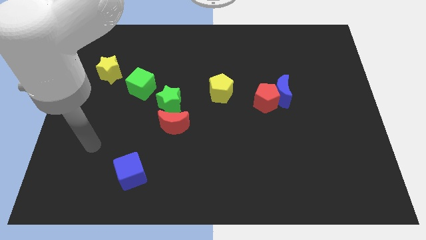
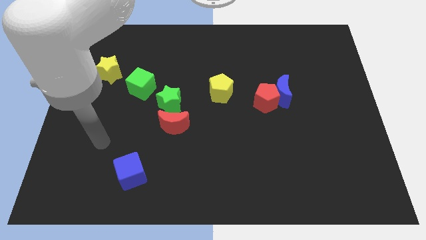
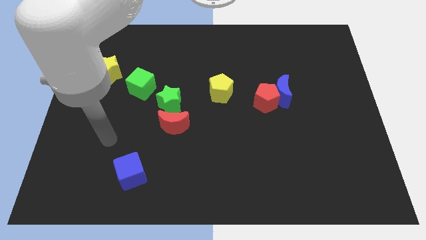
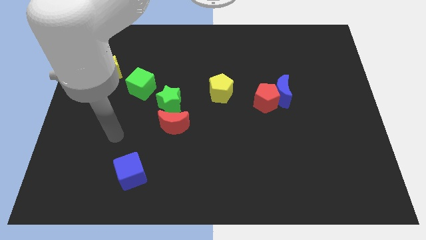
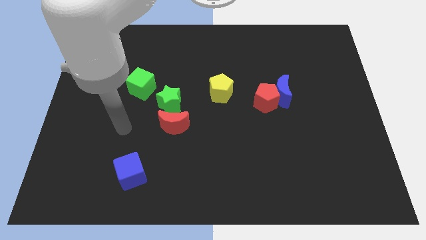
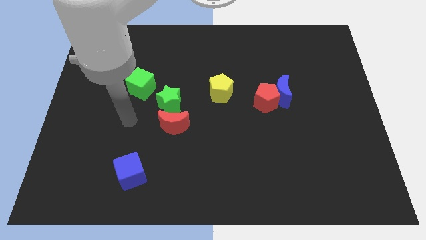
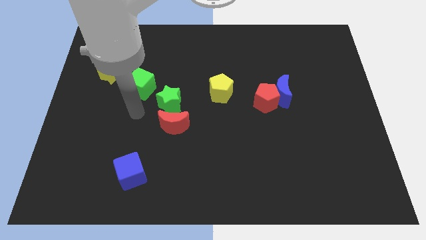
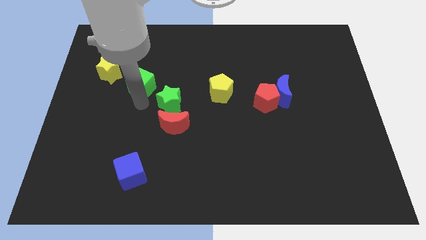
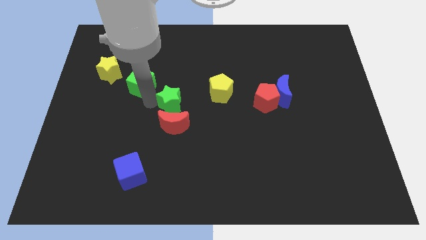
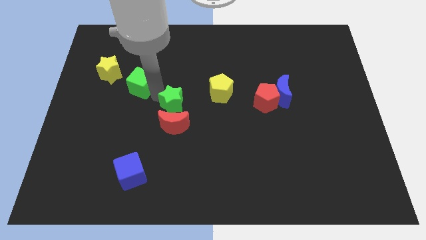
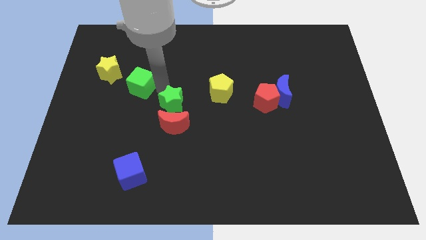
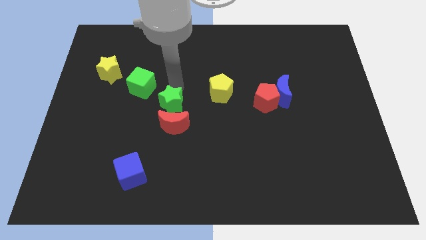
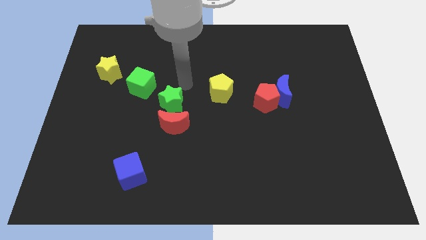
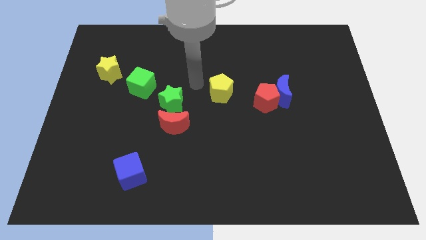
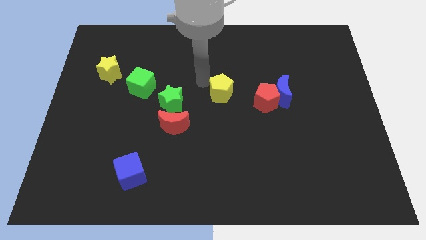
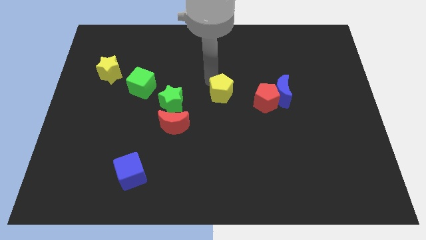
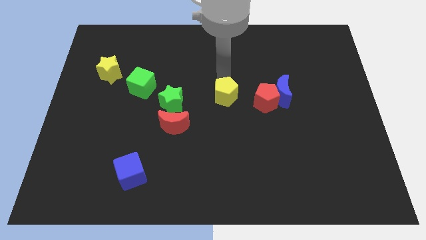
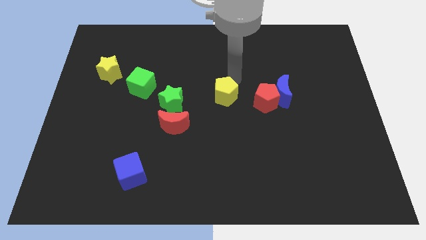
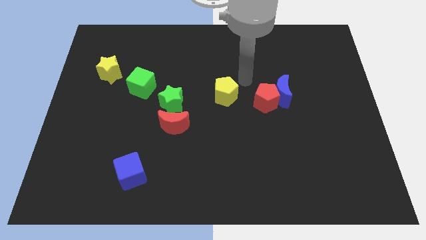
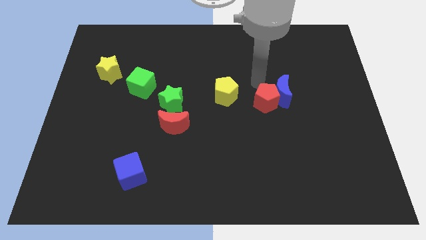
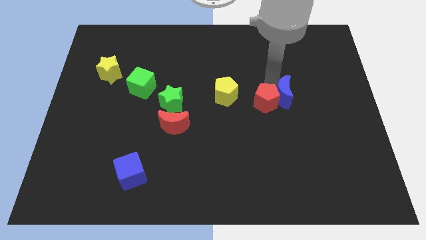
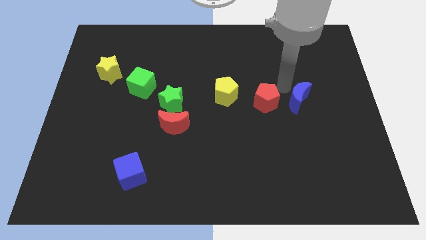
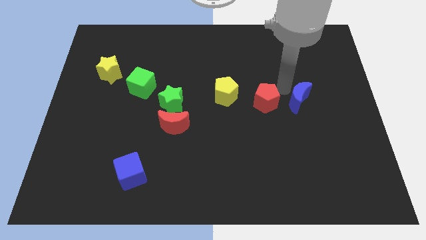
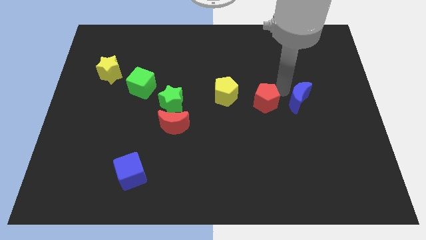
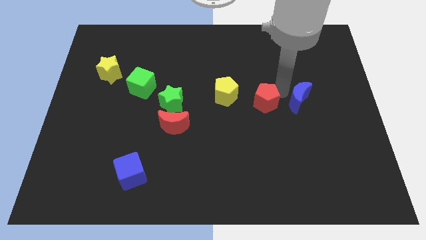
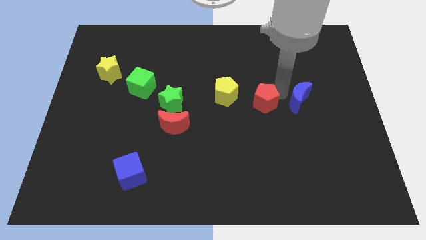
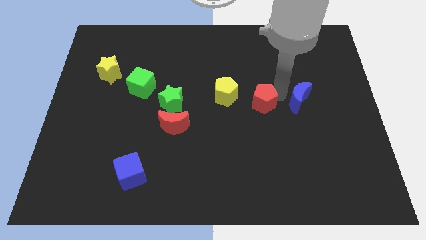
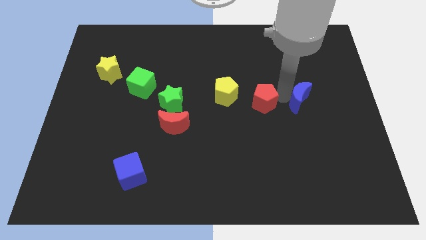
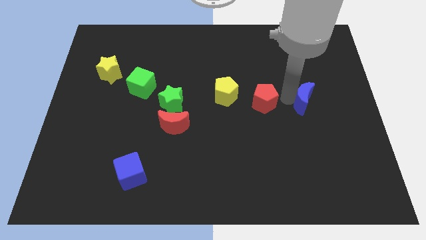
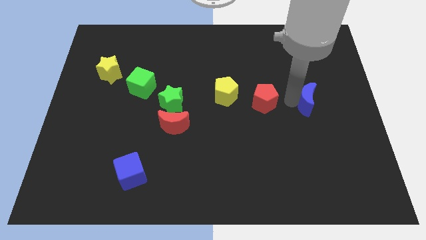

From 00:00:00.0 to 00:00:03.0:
separate the red pentagon from the blue moon

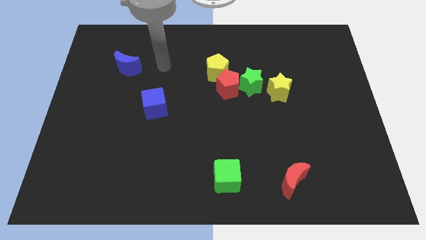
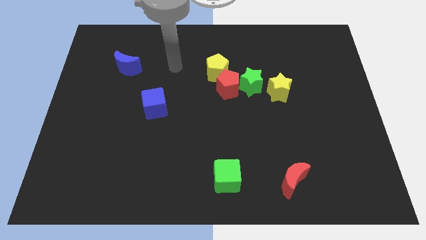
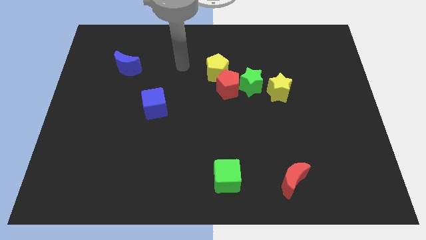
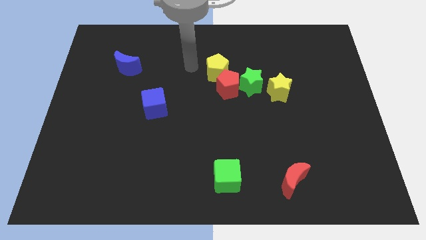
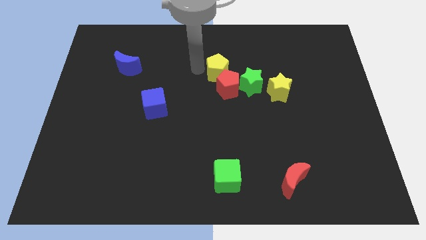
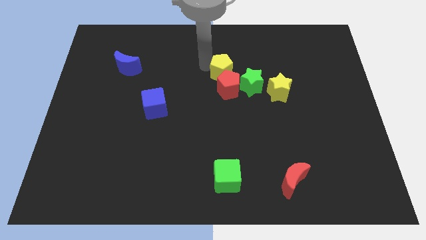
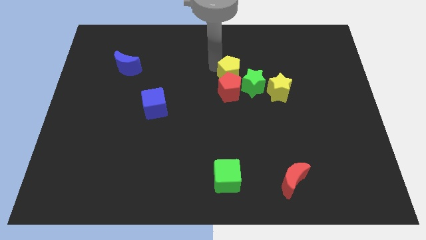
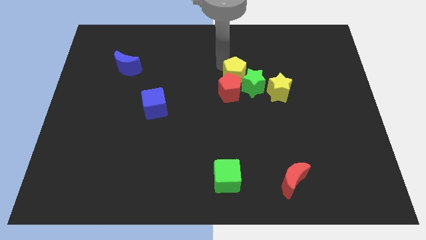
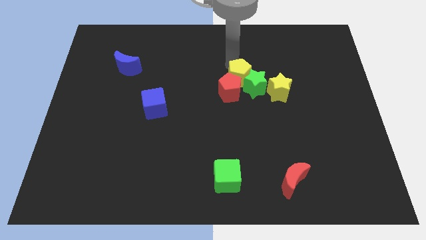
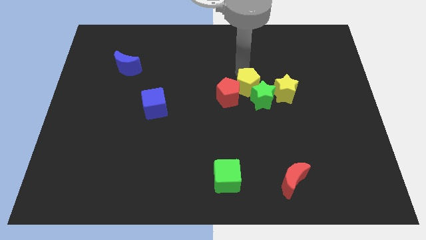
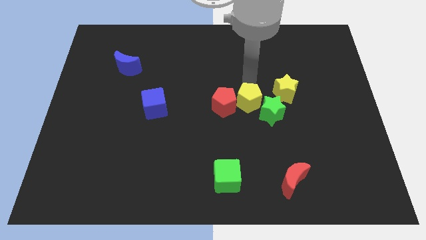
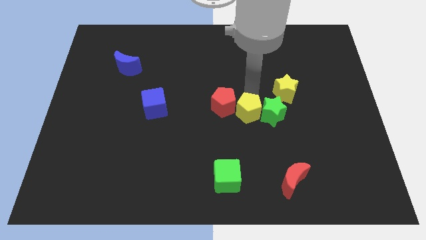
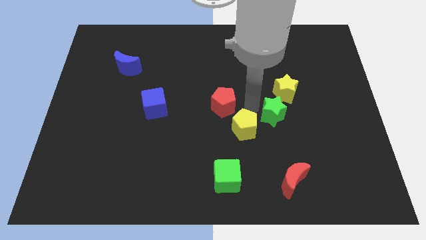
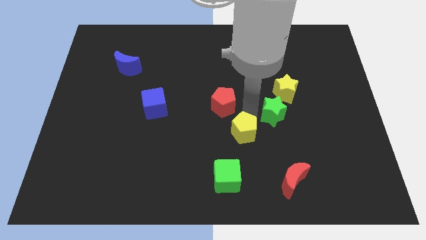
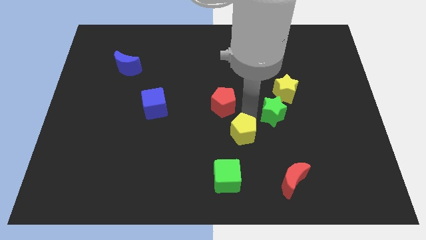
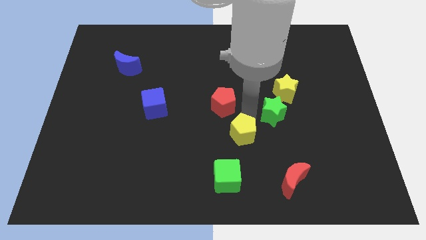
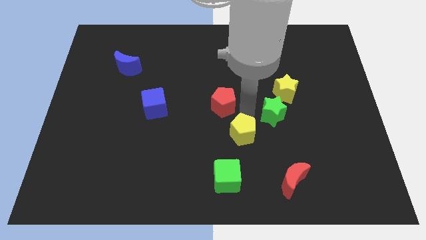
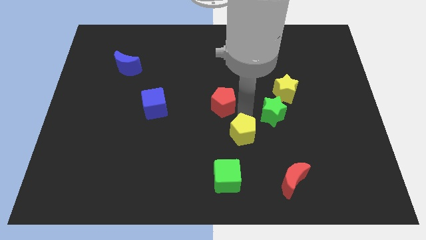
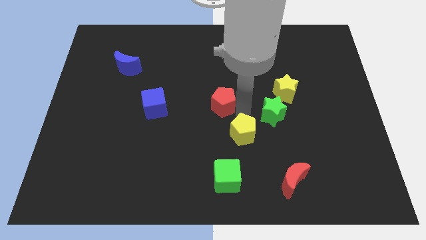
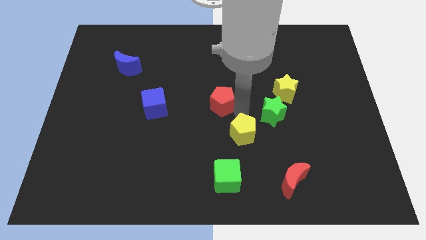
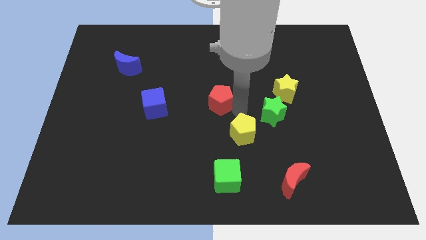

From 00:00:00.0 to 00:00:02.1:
pull the red pentagon apart from the green star and yellow pentagon

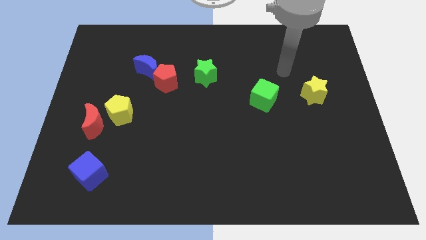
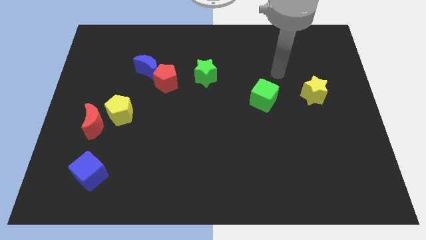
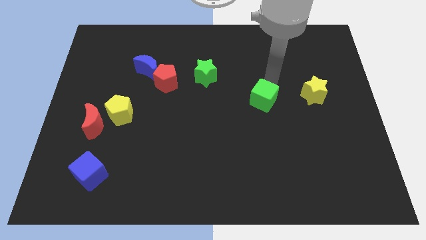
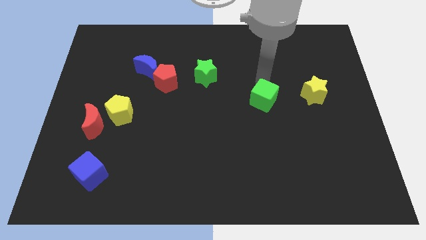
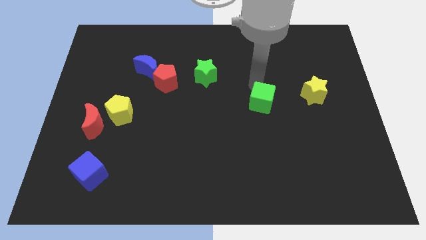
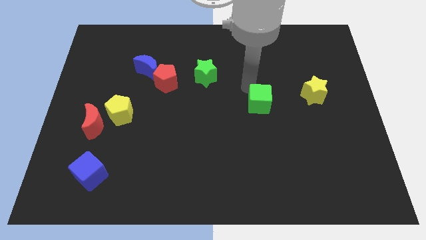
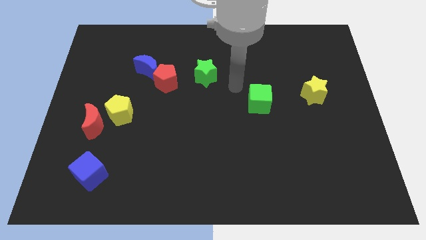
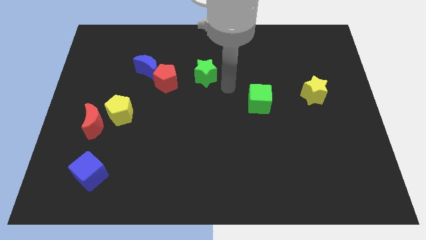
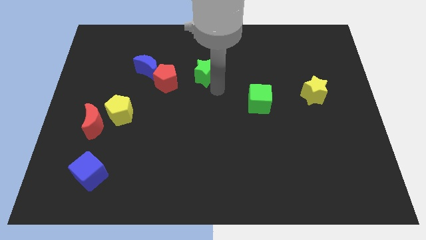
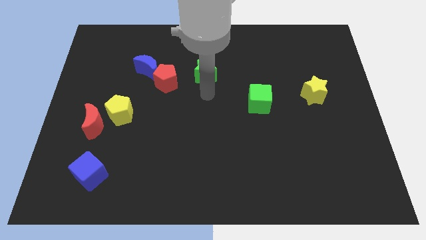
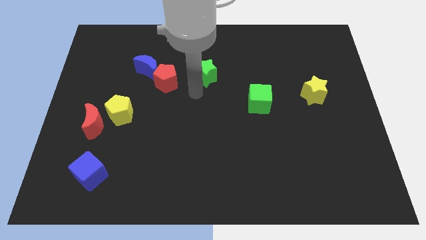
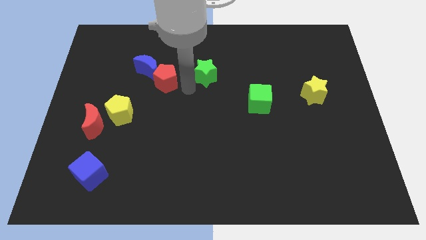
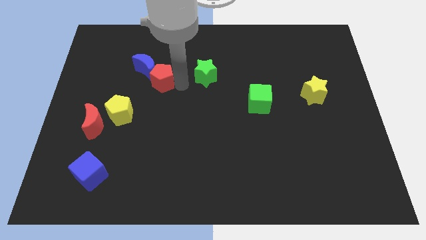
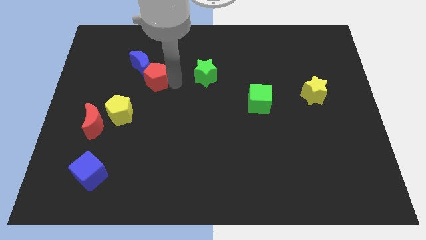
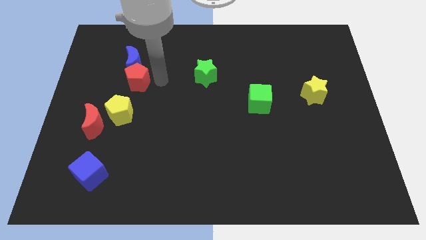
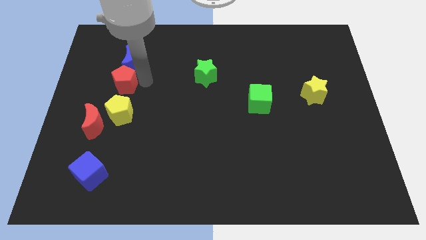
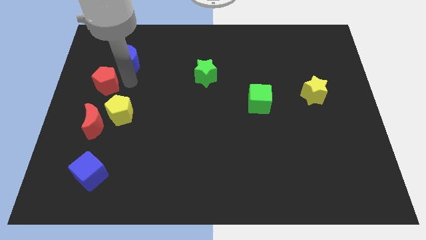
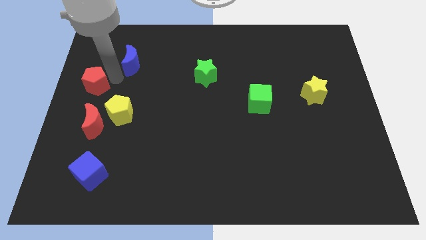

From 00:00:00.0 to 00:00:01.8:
pull the blue moon apart from the red pentagon

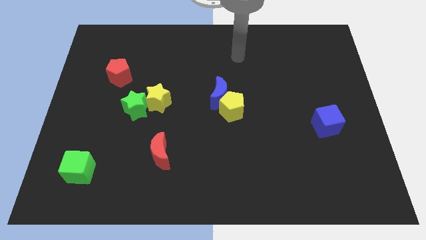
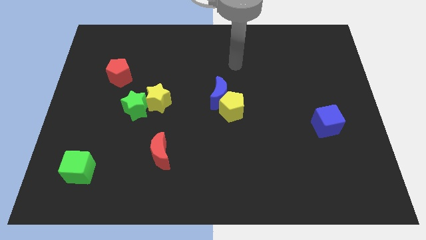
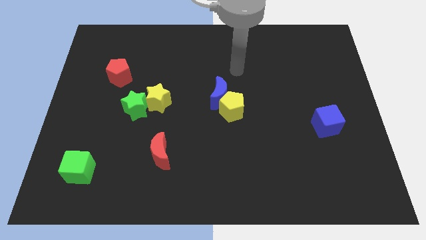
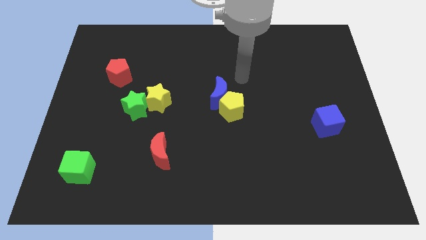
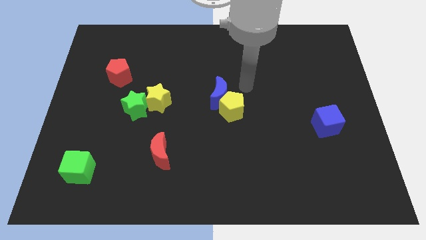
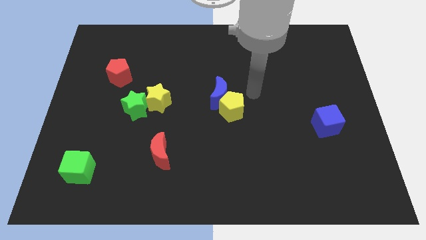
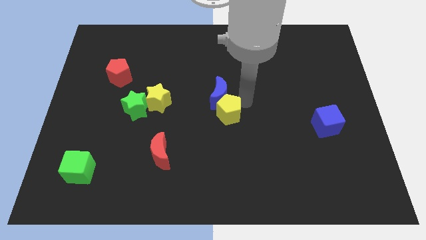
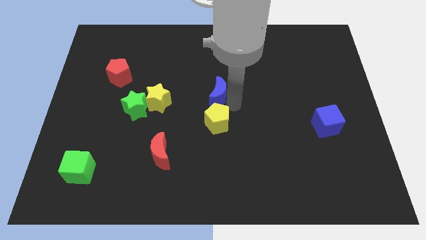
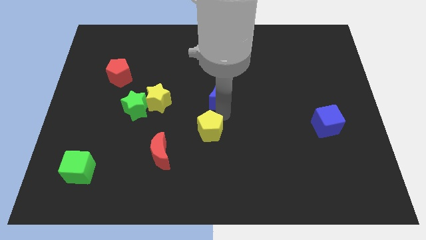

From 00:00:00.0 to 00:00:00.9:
pull the blue moon apart from the yellow pentagon

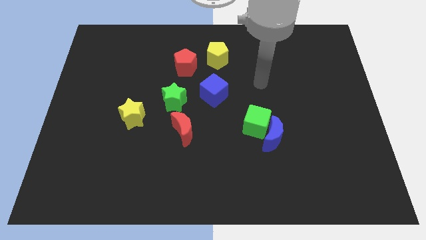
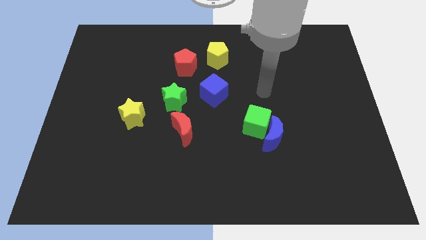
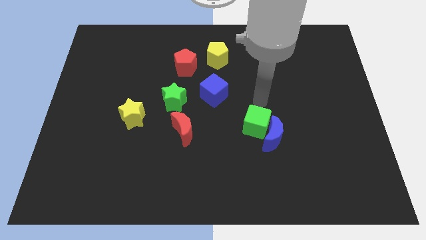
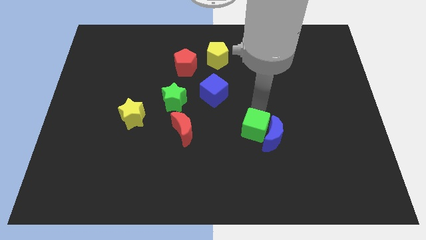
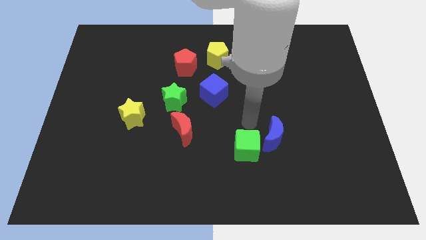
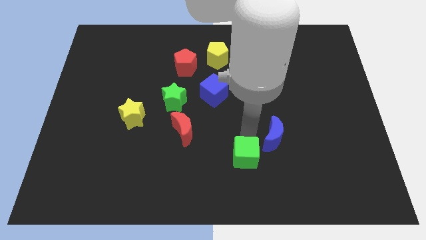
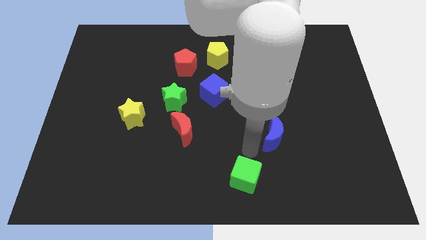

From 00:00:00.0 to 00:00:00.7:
separate the blue moon from the green cube

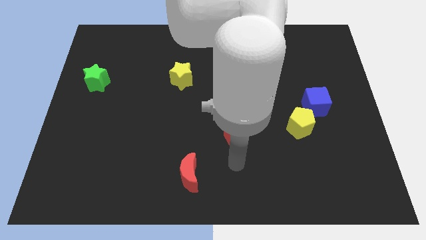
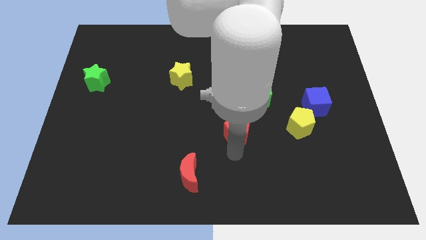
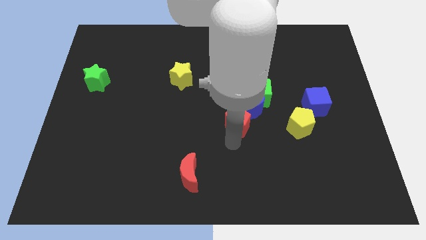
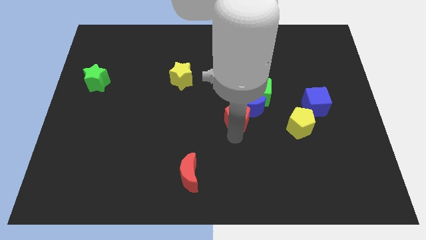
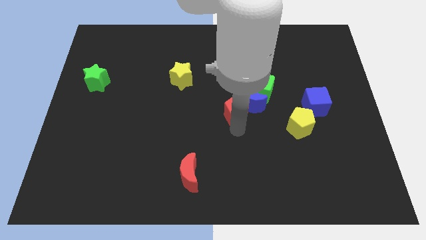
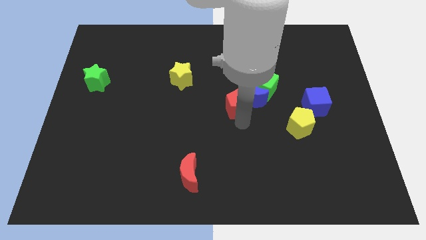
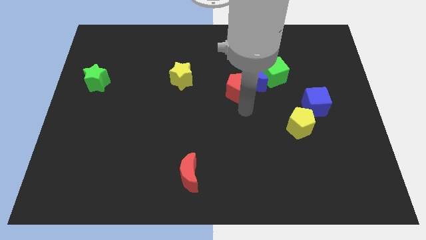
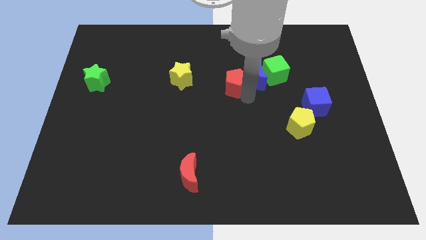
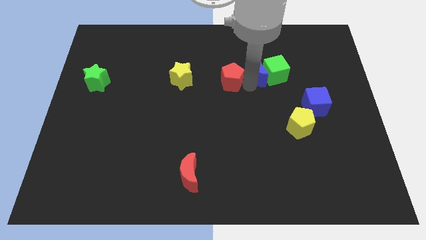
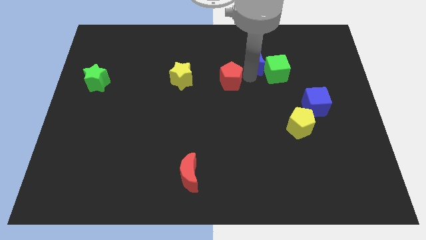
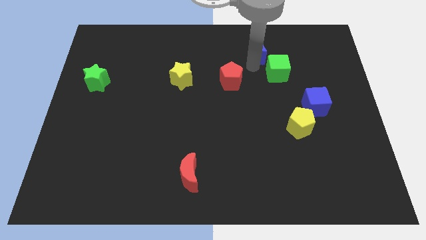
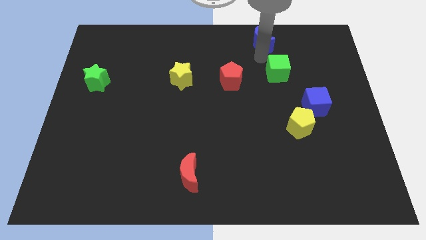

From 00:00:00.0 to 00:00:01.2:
pull the green cube apart from the blue moon
